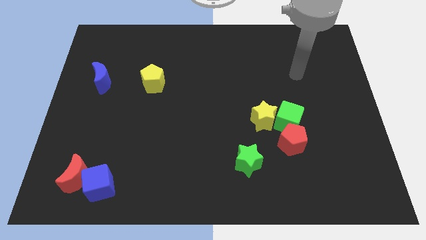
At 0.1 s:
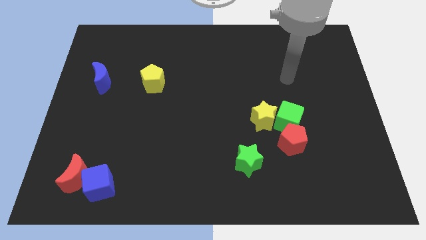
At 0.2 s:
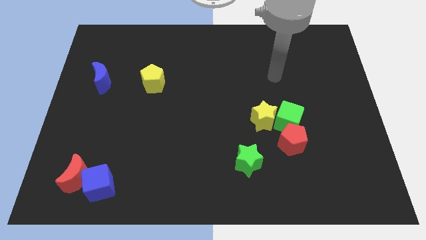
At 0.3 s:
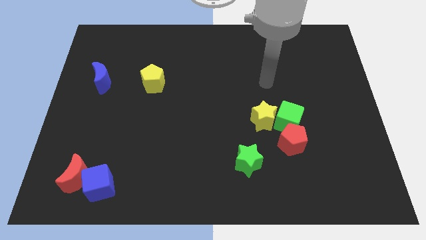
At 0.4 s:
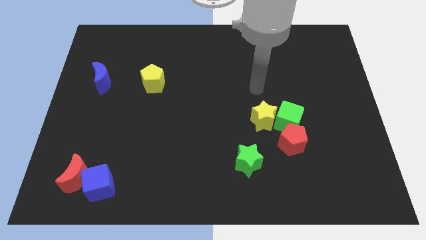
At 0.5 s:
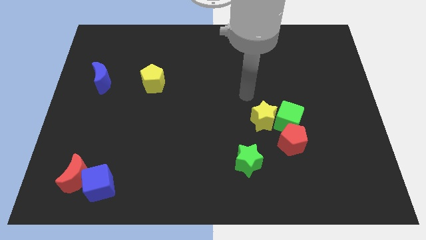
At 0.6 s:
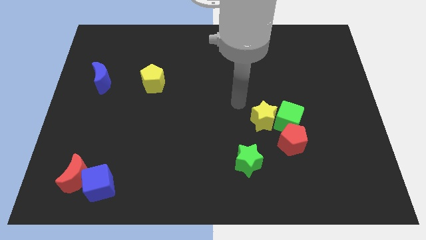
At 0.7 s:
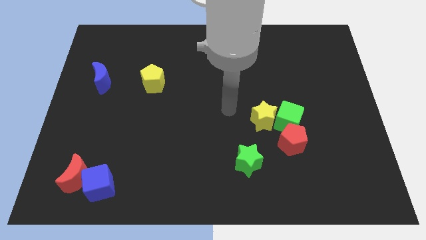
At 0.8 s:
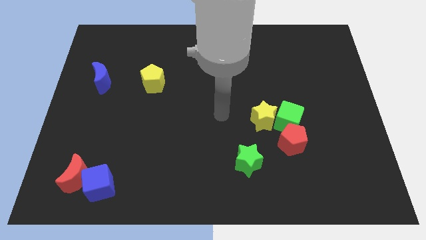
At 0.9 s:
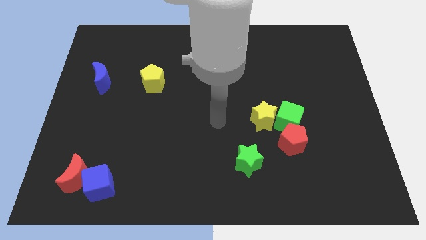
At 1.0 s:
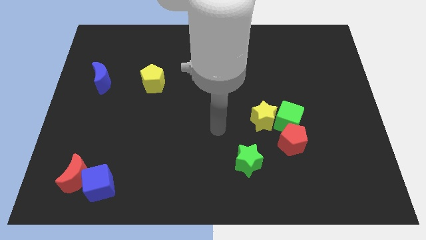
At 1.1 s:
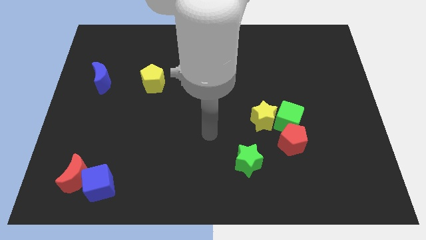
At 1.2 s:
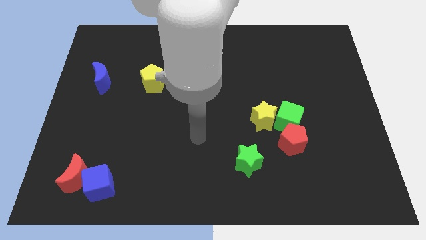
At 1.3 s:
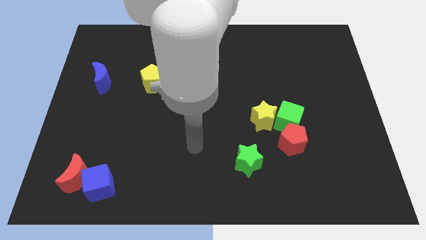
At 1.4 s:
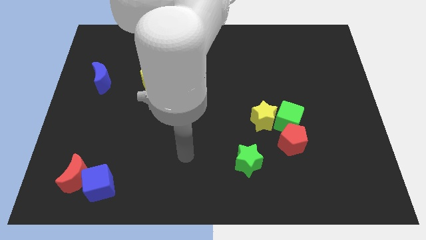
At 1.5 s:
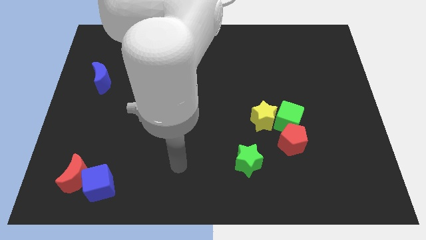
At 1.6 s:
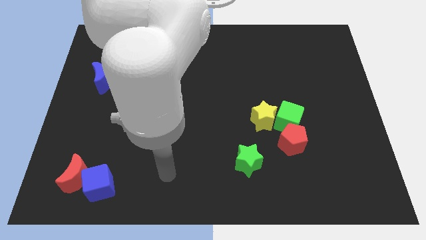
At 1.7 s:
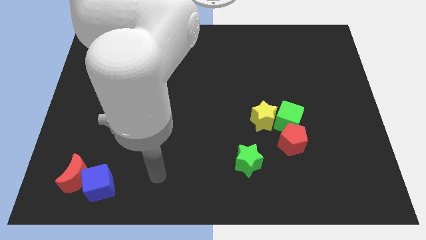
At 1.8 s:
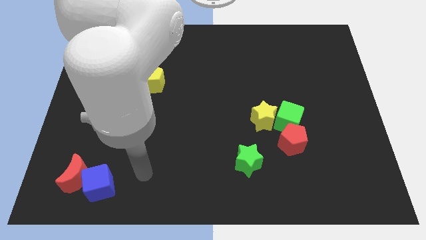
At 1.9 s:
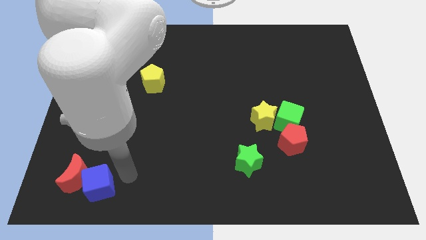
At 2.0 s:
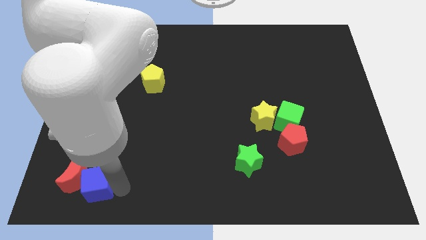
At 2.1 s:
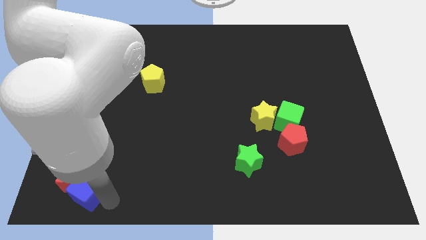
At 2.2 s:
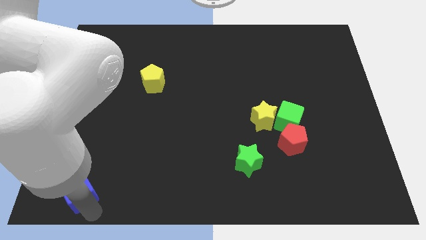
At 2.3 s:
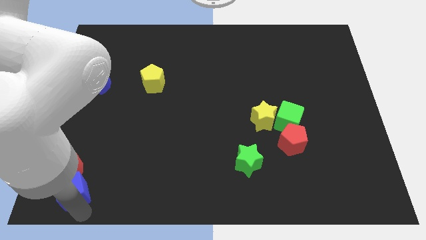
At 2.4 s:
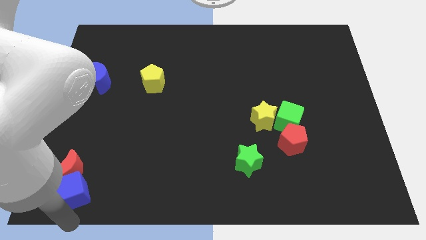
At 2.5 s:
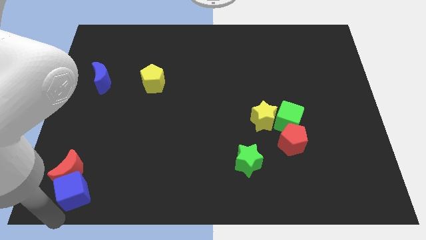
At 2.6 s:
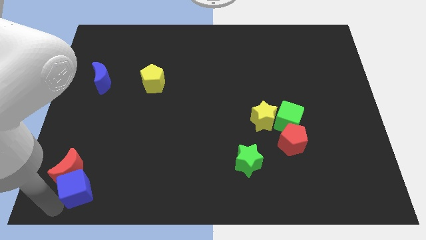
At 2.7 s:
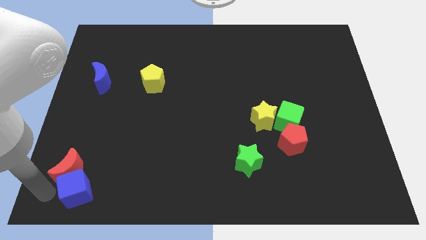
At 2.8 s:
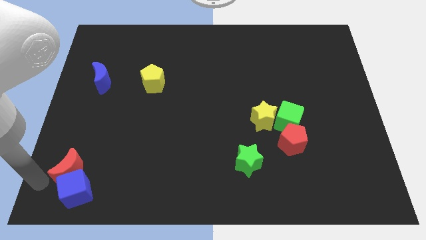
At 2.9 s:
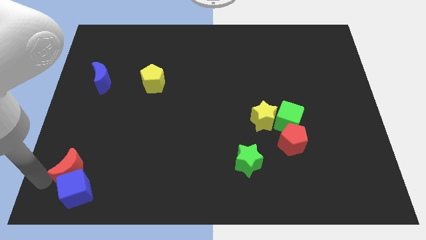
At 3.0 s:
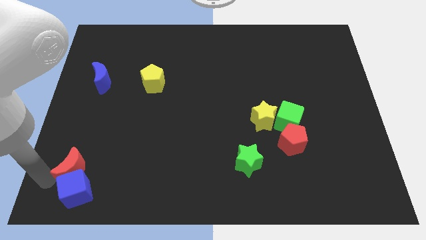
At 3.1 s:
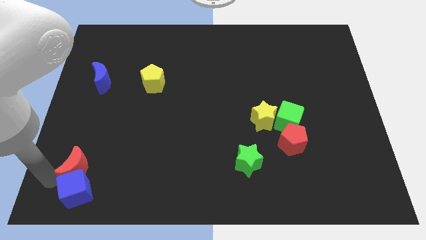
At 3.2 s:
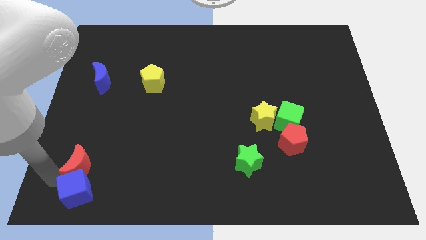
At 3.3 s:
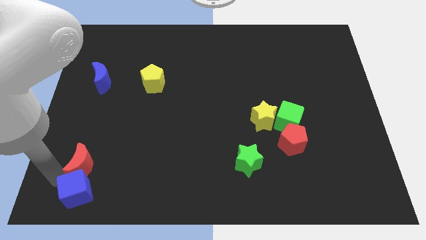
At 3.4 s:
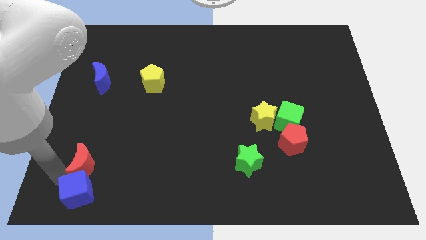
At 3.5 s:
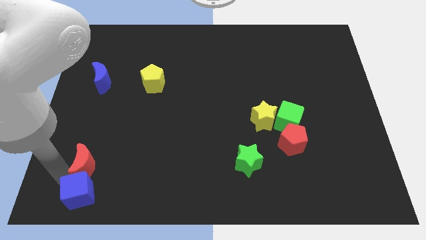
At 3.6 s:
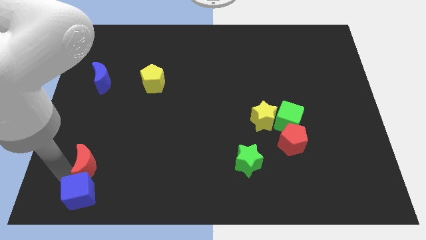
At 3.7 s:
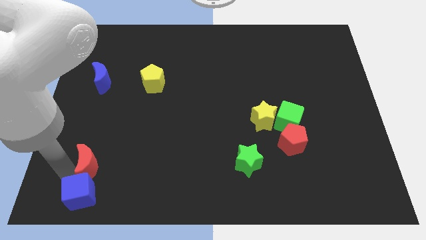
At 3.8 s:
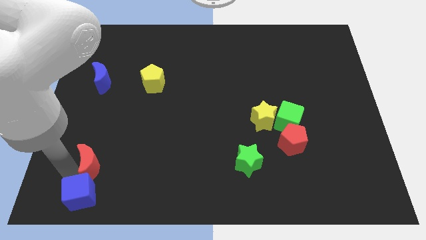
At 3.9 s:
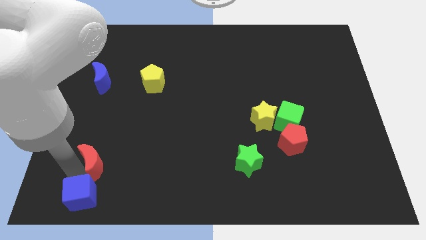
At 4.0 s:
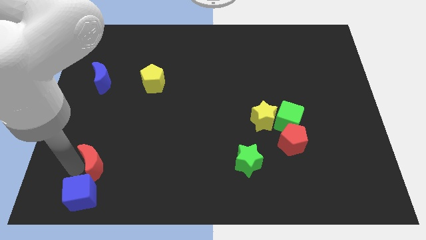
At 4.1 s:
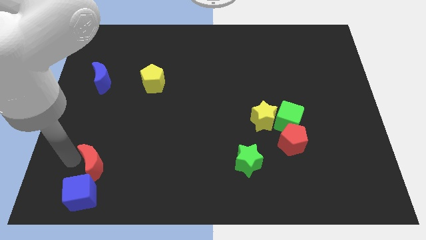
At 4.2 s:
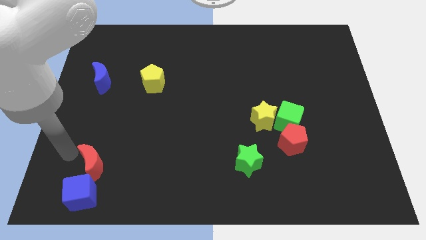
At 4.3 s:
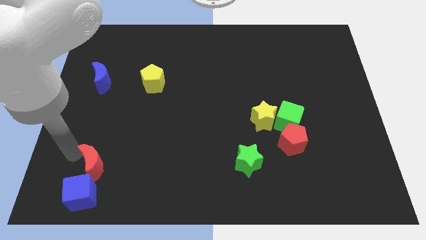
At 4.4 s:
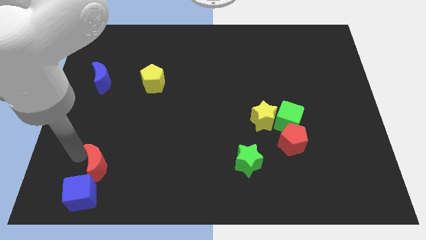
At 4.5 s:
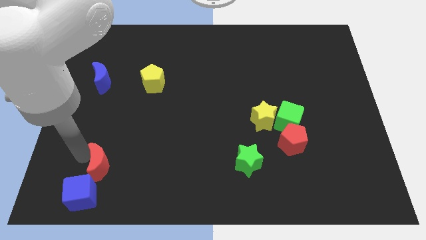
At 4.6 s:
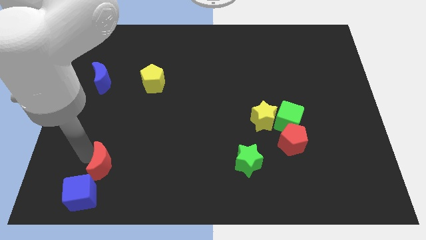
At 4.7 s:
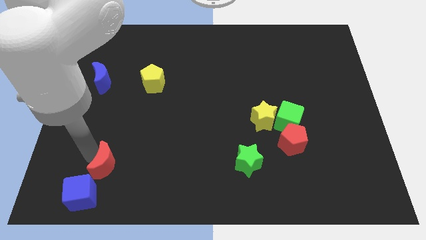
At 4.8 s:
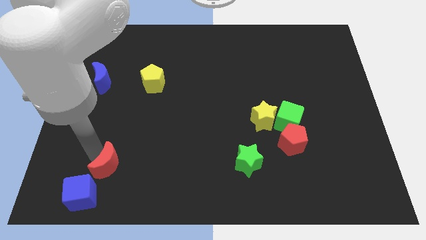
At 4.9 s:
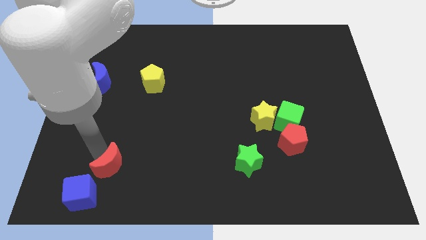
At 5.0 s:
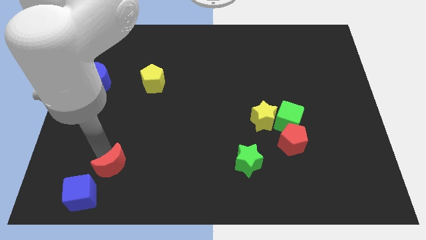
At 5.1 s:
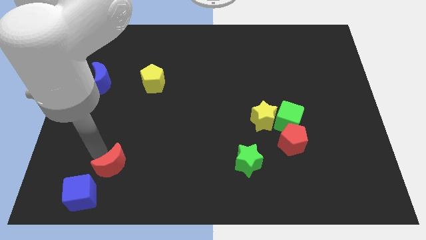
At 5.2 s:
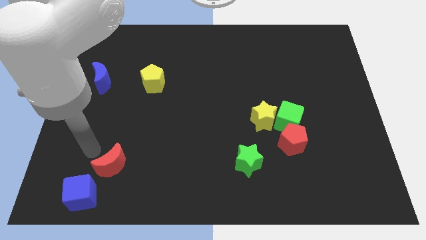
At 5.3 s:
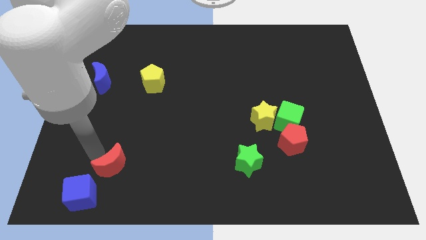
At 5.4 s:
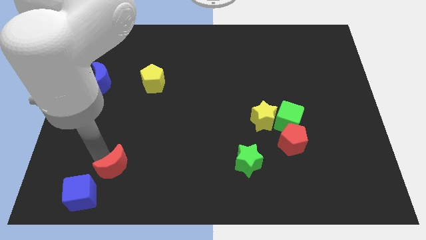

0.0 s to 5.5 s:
slide the red moon somewhat to the right

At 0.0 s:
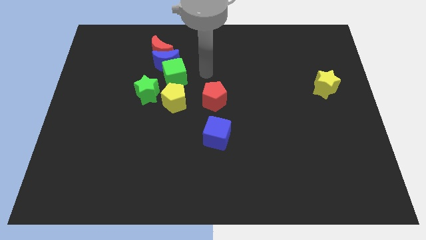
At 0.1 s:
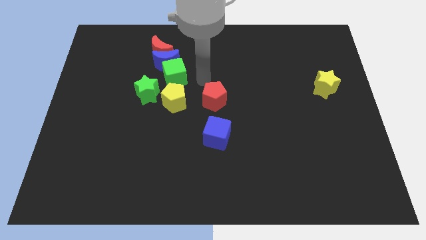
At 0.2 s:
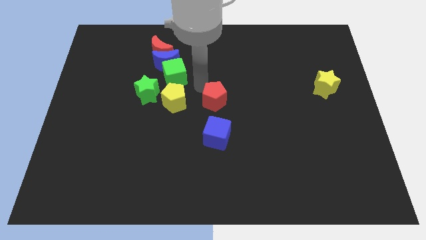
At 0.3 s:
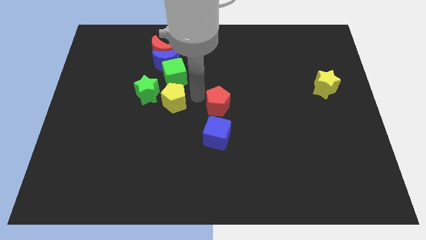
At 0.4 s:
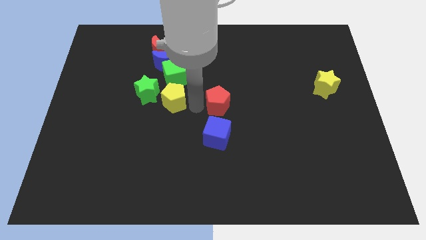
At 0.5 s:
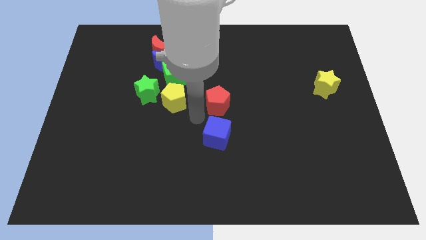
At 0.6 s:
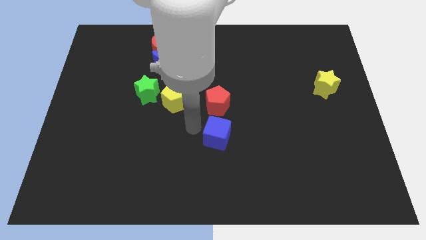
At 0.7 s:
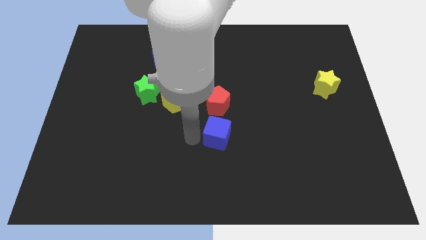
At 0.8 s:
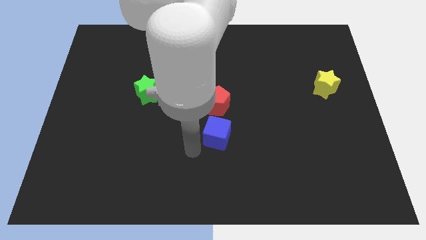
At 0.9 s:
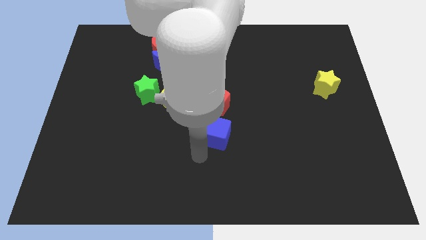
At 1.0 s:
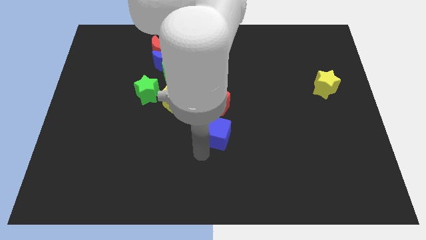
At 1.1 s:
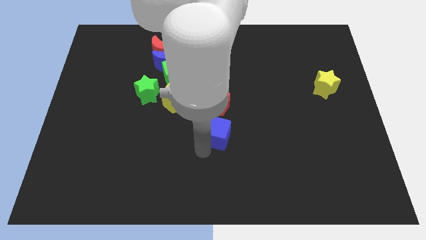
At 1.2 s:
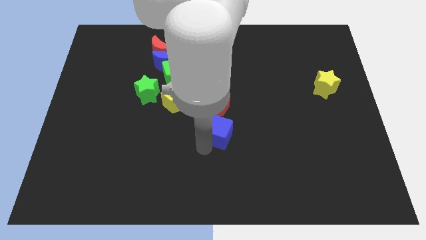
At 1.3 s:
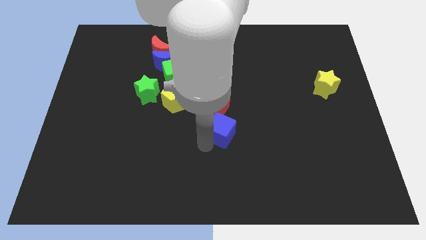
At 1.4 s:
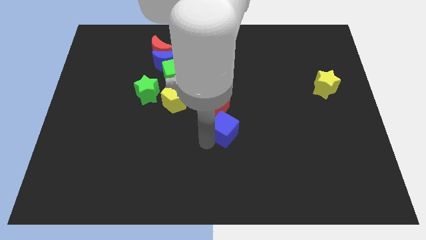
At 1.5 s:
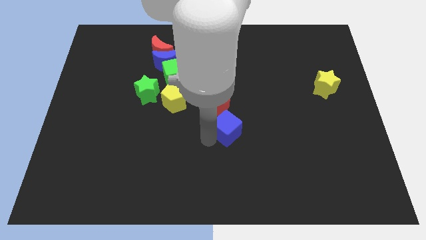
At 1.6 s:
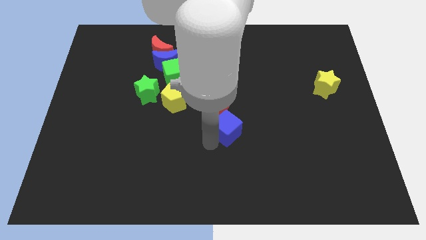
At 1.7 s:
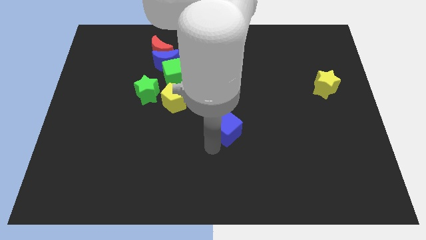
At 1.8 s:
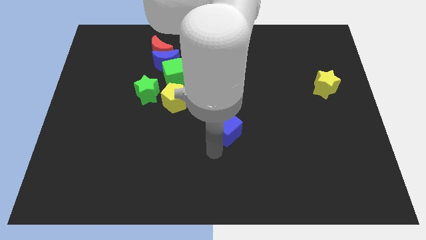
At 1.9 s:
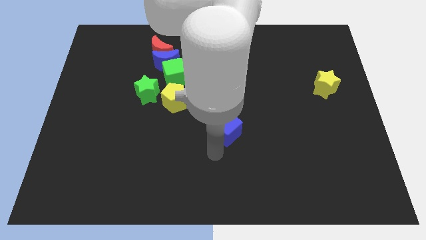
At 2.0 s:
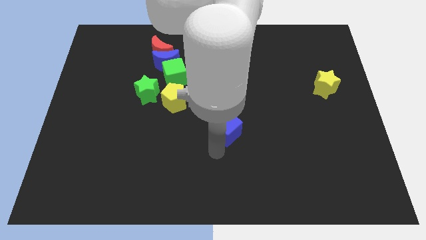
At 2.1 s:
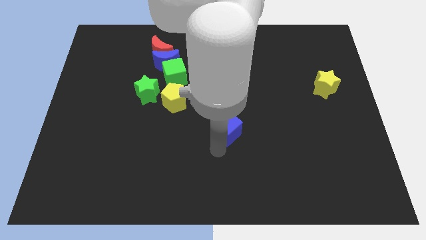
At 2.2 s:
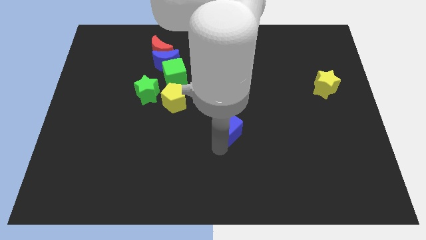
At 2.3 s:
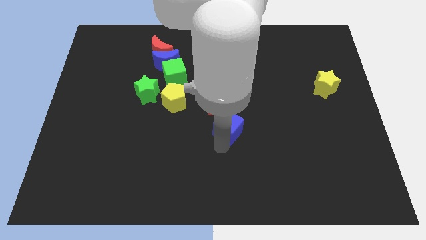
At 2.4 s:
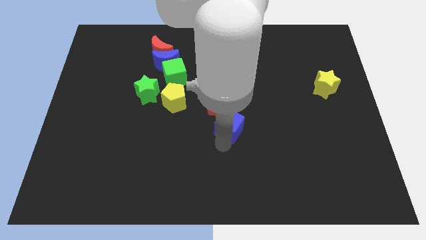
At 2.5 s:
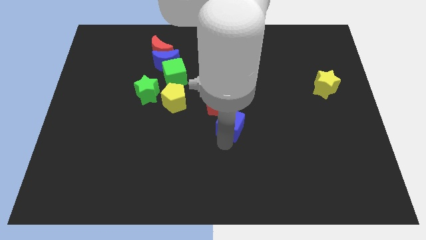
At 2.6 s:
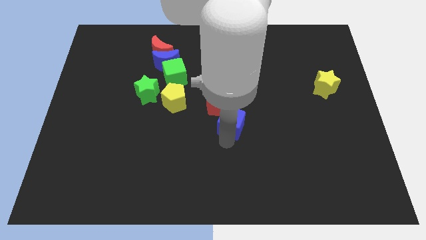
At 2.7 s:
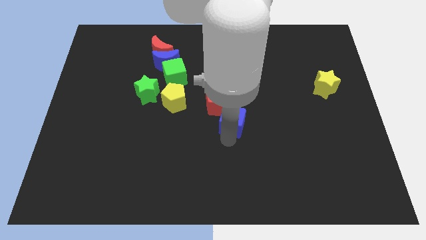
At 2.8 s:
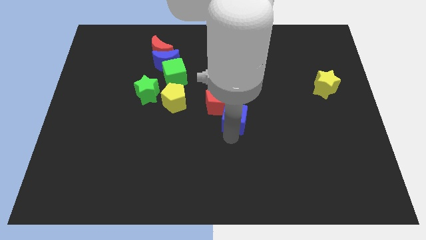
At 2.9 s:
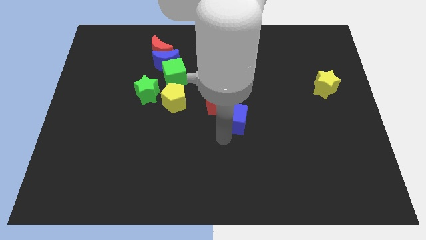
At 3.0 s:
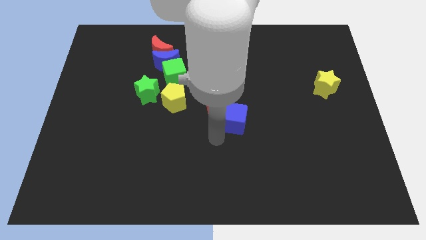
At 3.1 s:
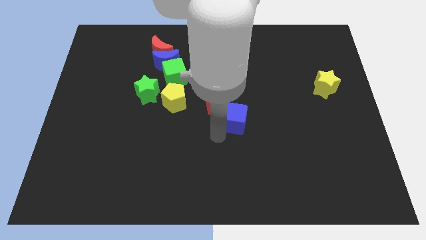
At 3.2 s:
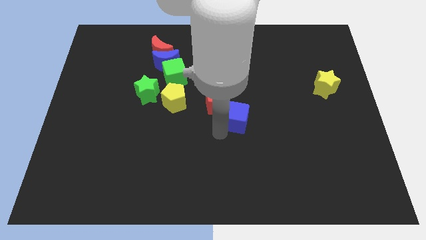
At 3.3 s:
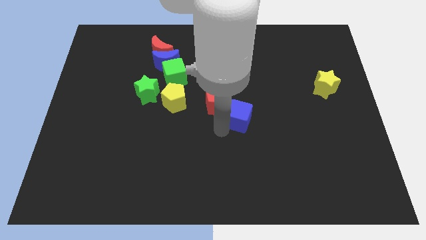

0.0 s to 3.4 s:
move the blue cube a little bit diagonally upwards and to the right
